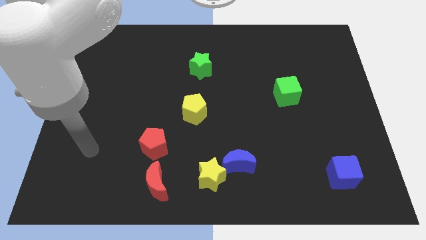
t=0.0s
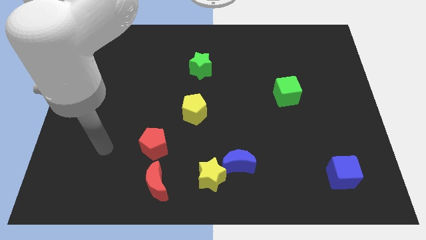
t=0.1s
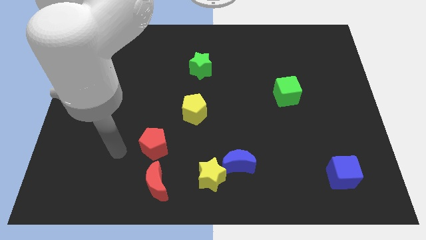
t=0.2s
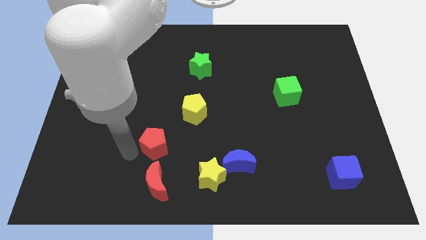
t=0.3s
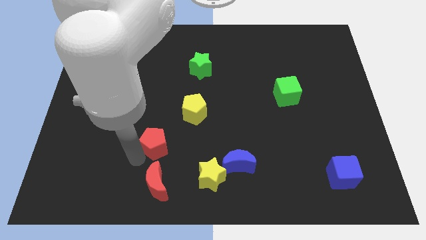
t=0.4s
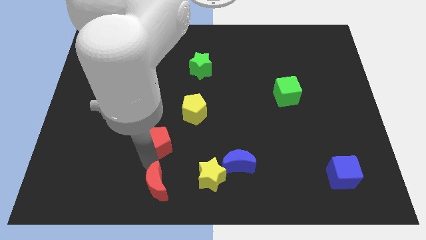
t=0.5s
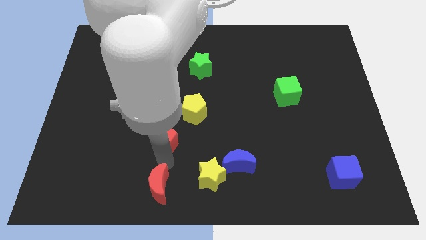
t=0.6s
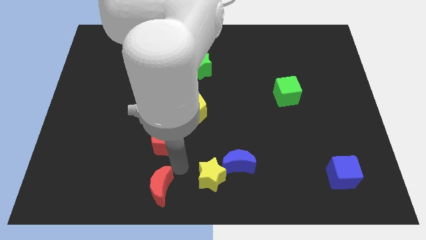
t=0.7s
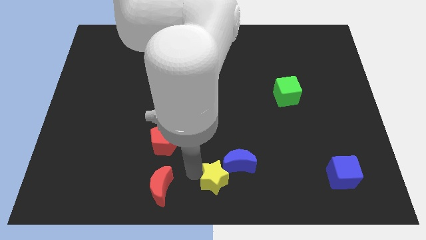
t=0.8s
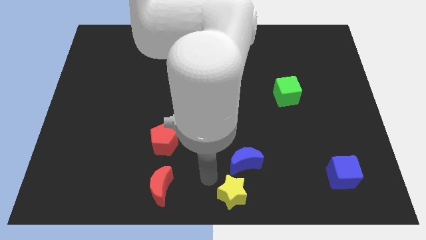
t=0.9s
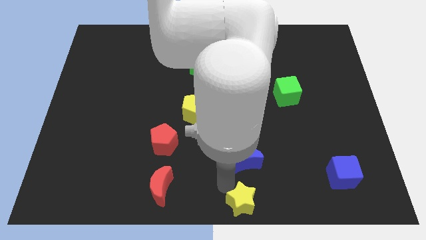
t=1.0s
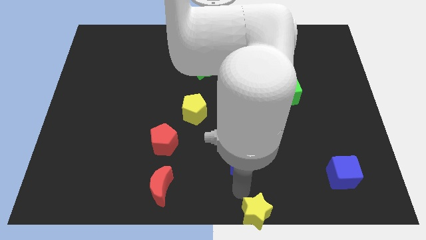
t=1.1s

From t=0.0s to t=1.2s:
pull the blue moon apart from the yellow star

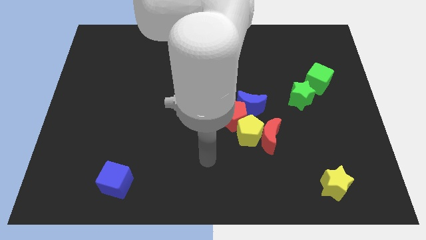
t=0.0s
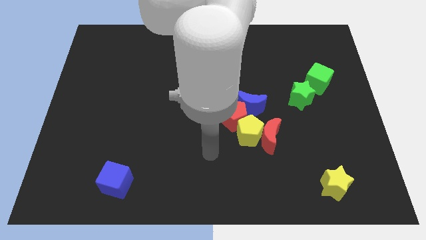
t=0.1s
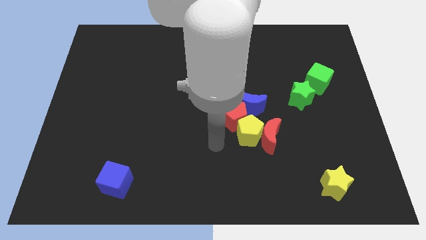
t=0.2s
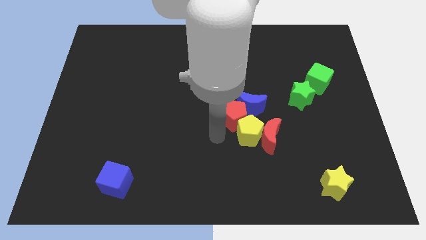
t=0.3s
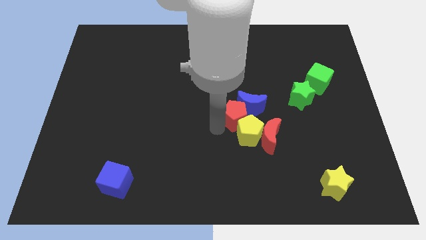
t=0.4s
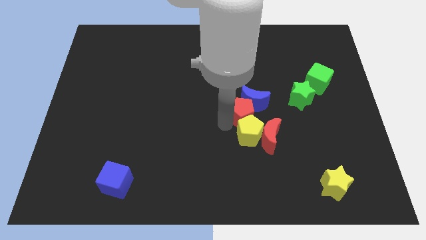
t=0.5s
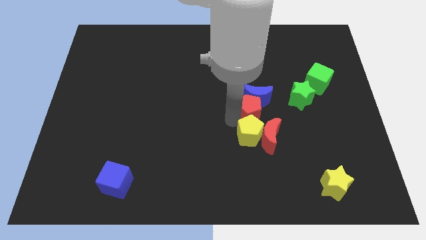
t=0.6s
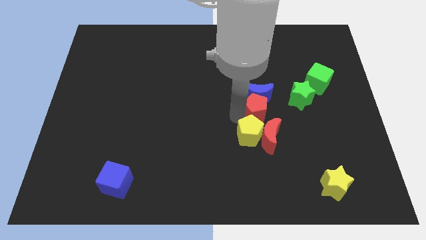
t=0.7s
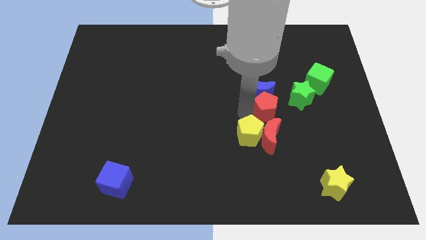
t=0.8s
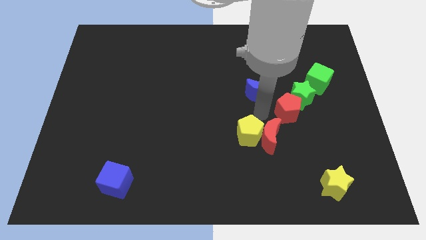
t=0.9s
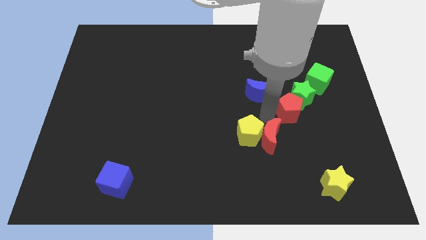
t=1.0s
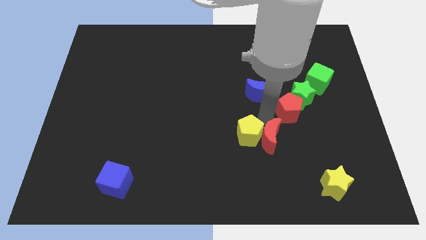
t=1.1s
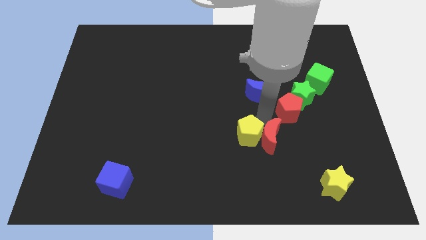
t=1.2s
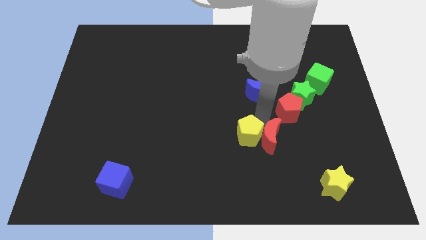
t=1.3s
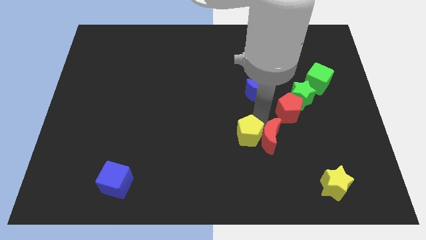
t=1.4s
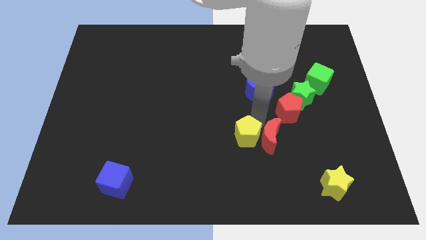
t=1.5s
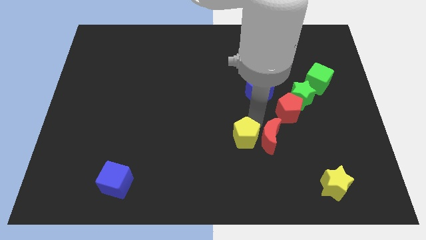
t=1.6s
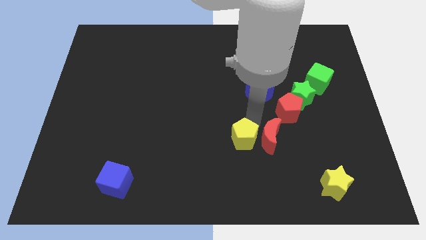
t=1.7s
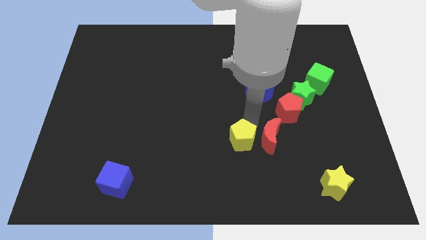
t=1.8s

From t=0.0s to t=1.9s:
pull the yellow pentagon apart from the red moon, red pentagon, and blue moon

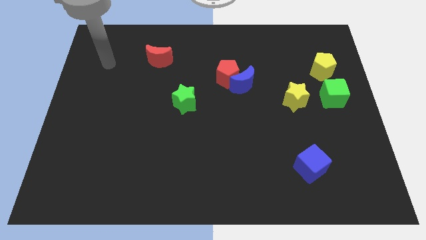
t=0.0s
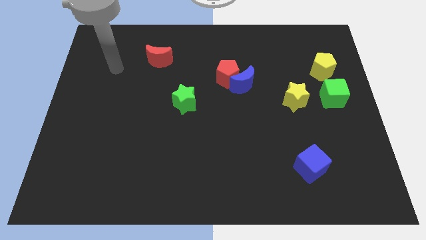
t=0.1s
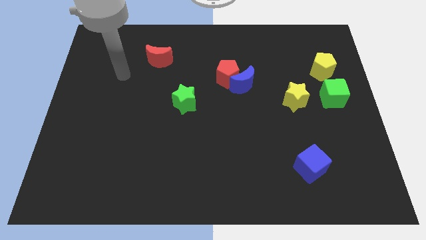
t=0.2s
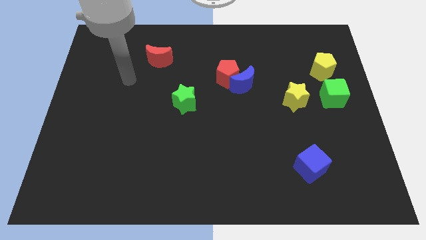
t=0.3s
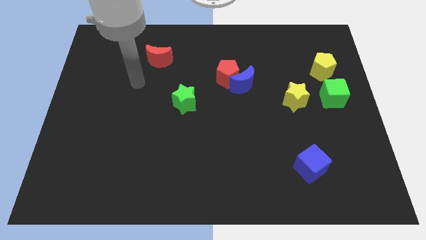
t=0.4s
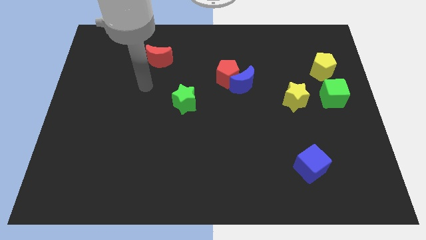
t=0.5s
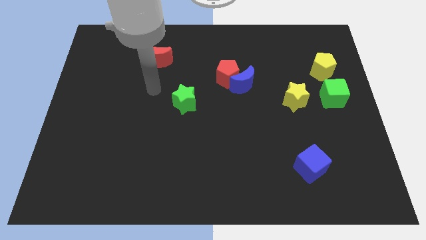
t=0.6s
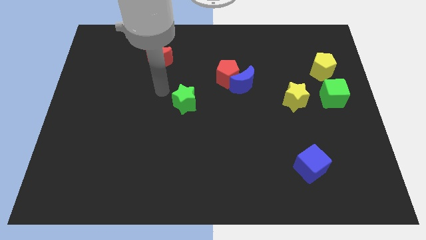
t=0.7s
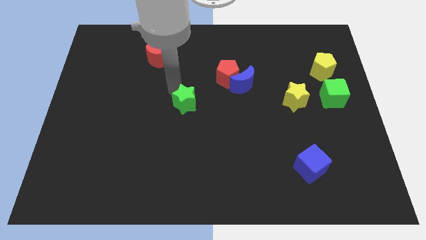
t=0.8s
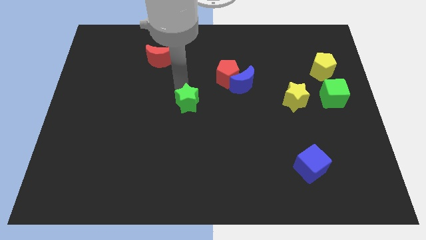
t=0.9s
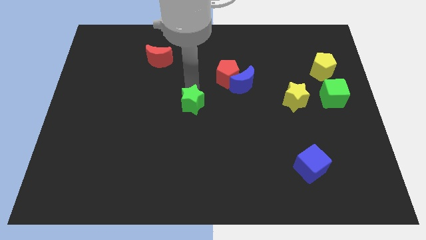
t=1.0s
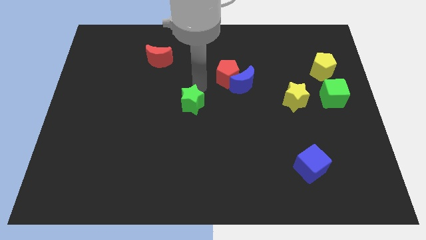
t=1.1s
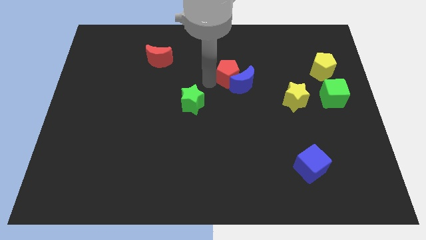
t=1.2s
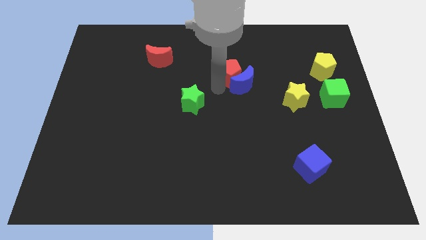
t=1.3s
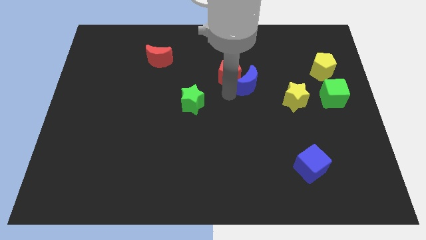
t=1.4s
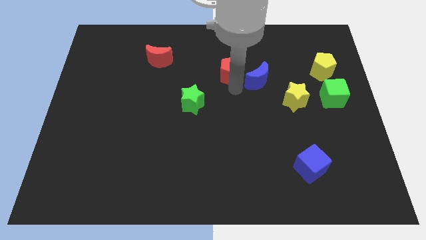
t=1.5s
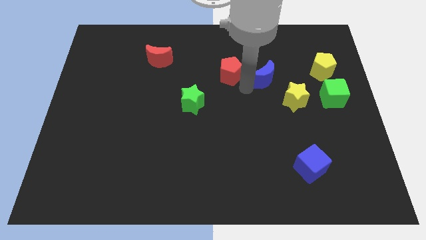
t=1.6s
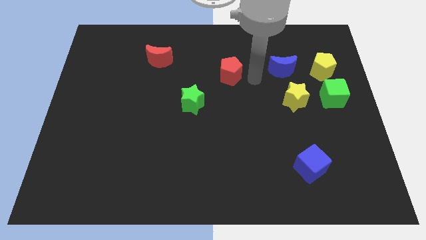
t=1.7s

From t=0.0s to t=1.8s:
pull the red pentagon apart from the blue moon

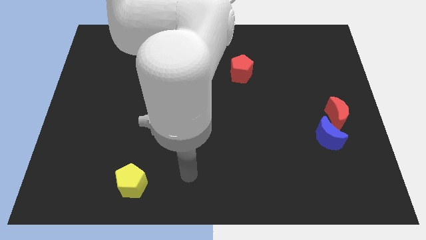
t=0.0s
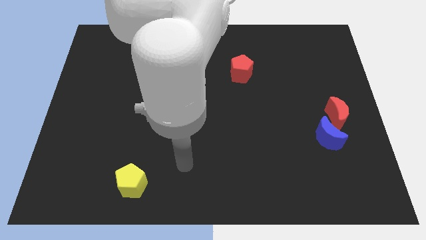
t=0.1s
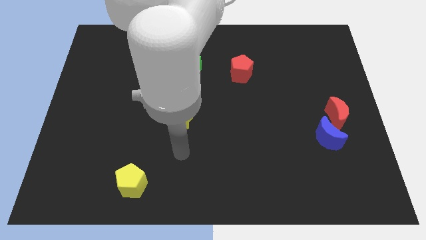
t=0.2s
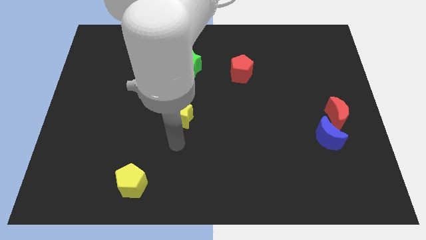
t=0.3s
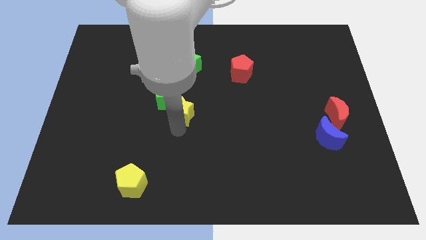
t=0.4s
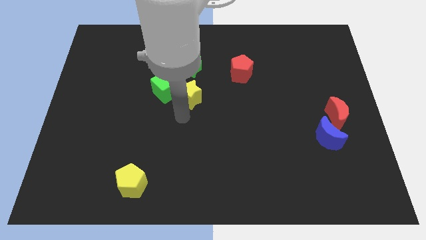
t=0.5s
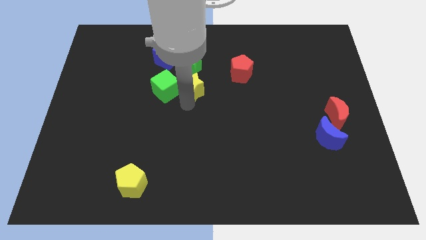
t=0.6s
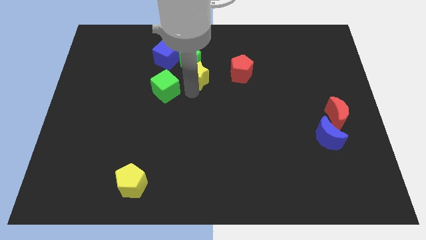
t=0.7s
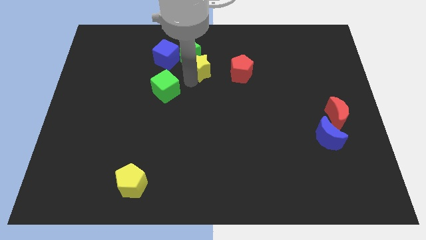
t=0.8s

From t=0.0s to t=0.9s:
move the green cube away from the yellow star

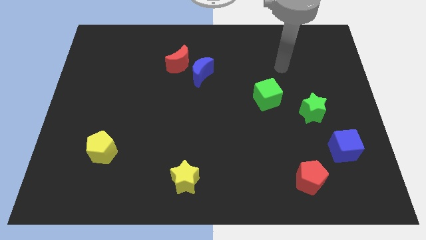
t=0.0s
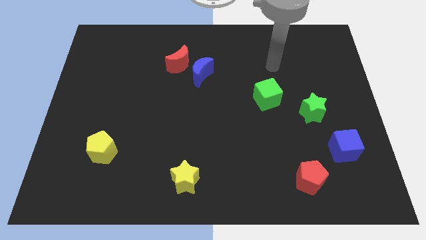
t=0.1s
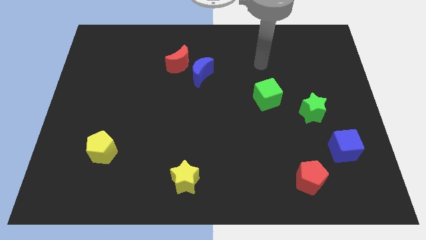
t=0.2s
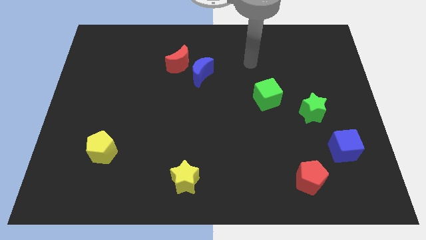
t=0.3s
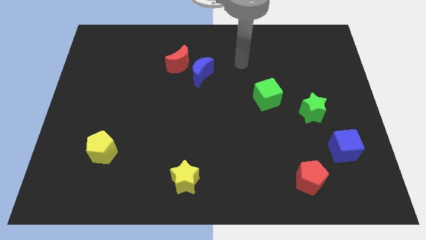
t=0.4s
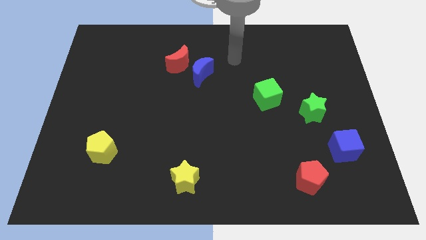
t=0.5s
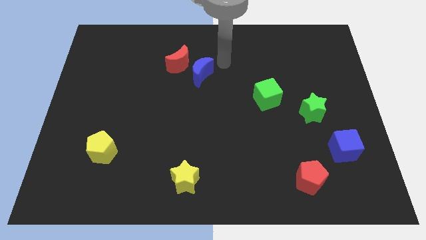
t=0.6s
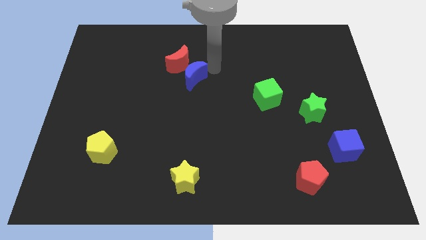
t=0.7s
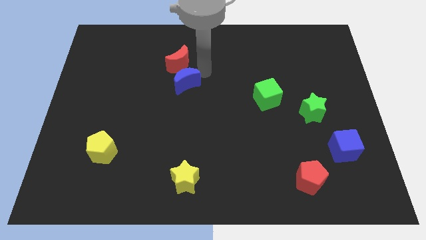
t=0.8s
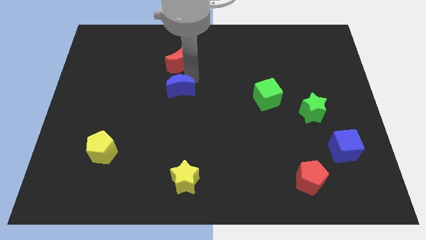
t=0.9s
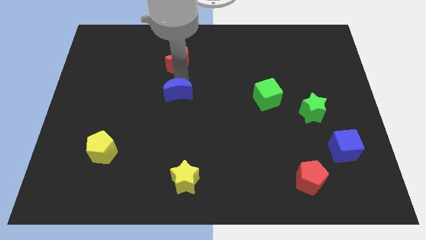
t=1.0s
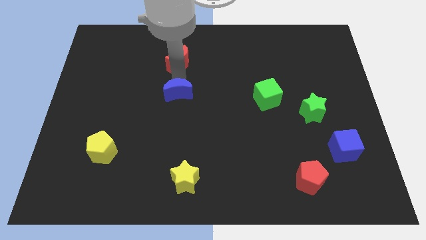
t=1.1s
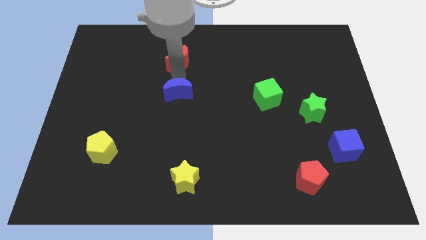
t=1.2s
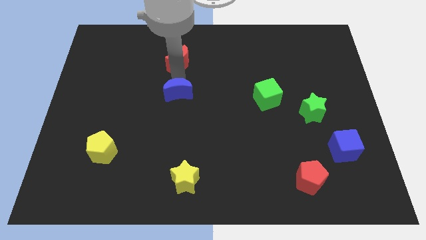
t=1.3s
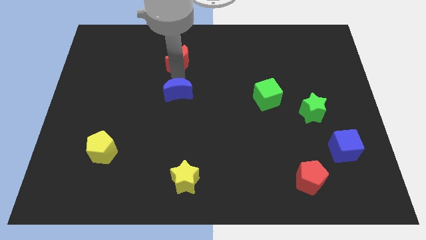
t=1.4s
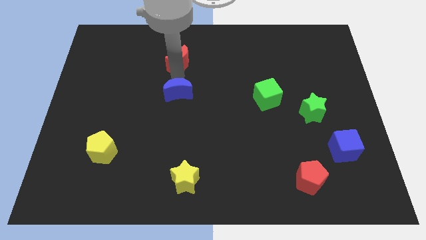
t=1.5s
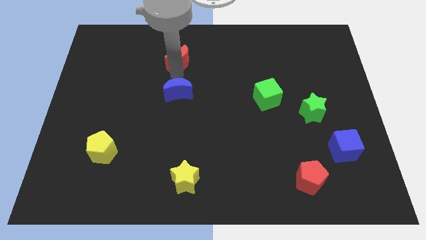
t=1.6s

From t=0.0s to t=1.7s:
separate the red moon from the blue moon

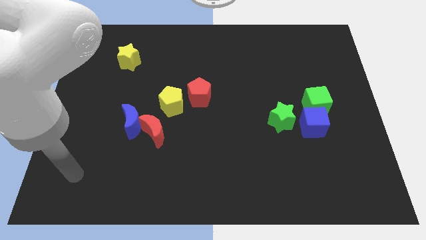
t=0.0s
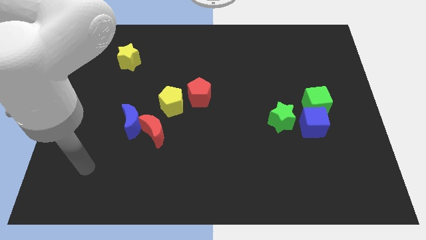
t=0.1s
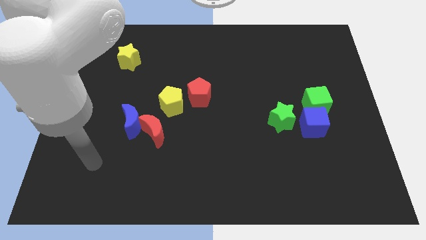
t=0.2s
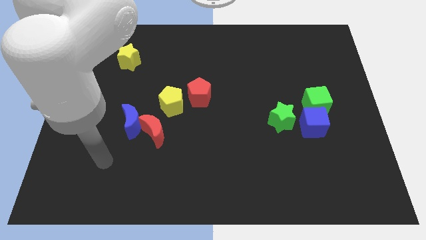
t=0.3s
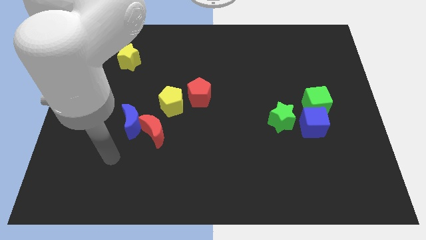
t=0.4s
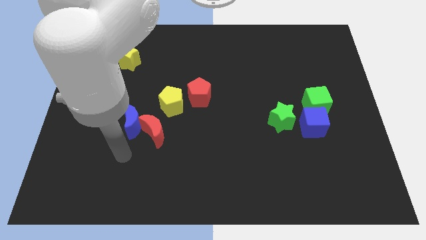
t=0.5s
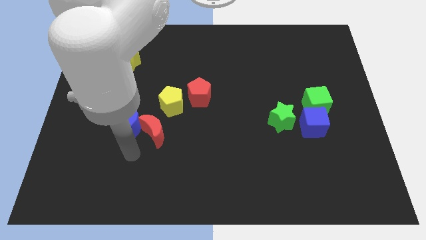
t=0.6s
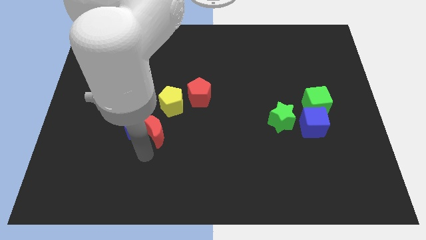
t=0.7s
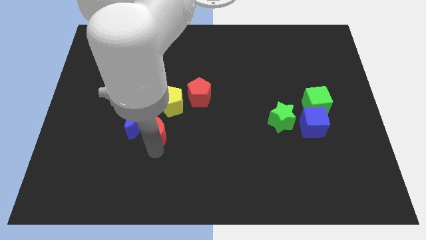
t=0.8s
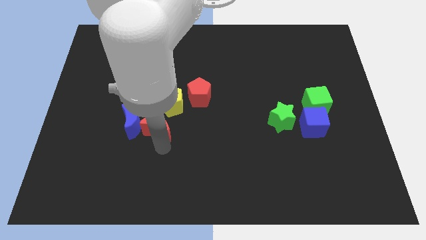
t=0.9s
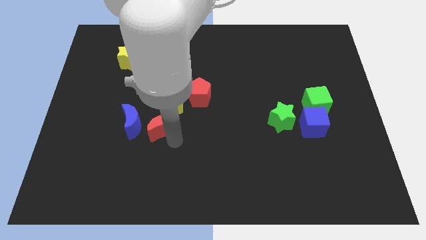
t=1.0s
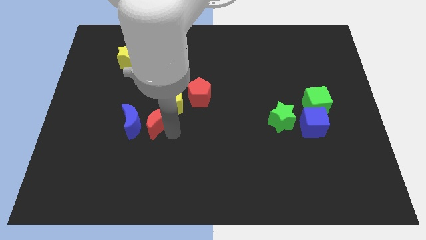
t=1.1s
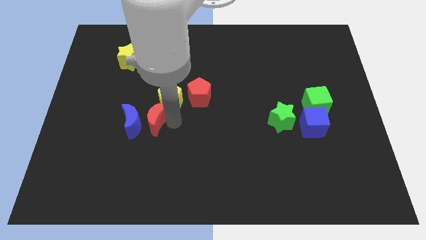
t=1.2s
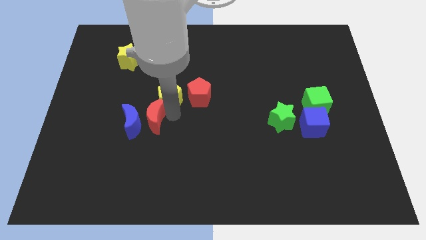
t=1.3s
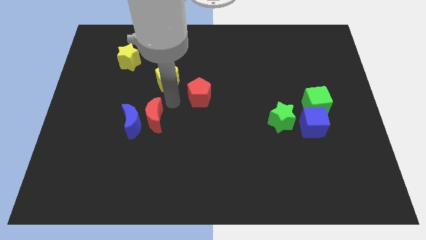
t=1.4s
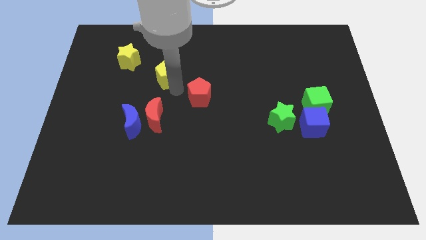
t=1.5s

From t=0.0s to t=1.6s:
move the red pentagon away from the yellow pentagon

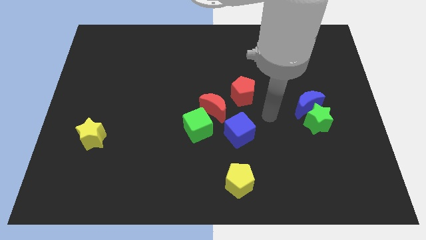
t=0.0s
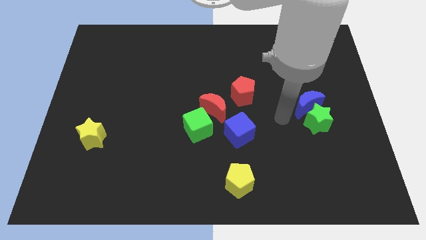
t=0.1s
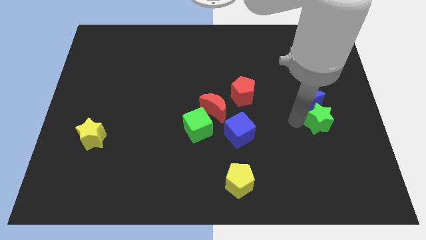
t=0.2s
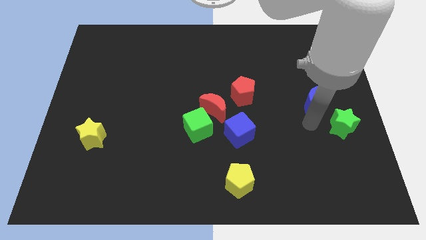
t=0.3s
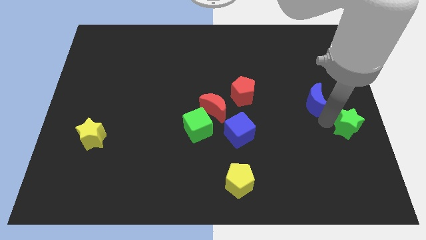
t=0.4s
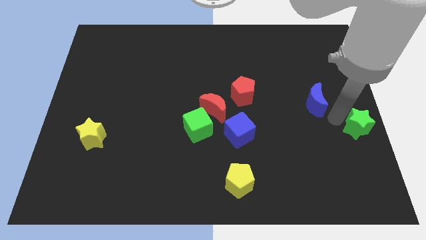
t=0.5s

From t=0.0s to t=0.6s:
pull the blue moon apart from the green star
